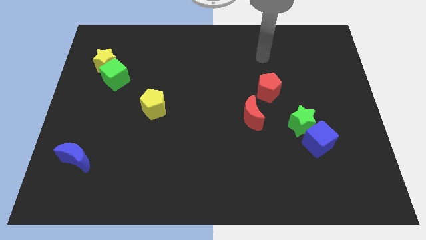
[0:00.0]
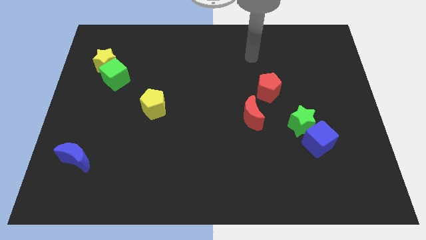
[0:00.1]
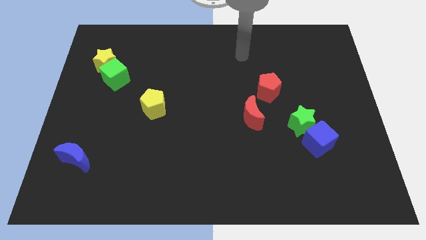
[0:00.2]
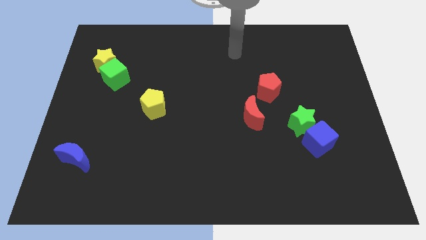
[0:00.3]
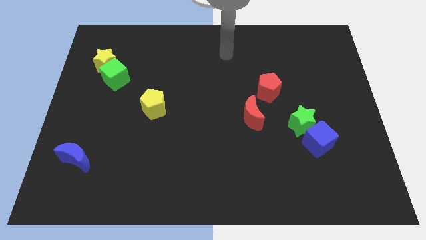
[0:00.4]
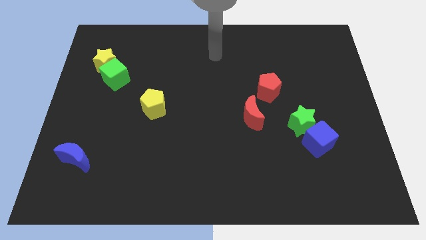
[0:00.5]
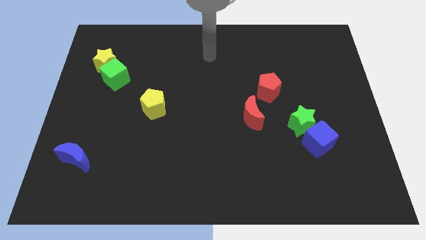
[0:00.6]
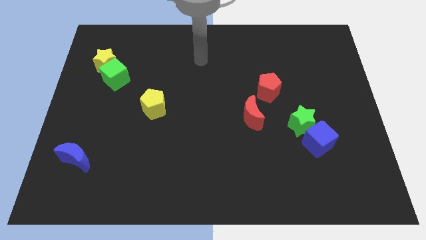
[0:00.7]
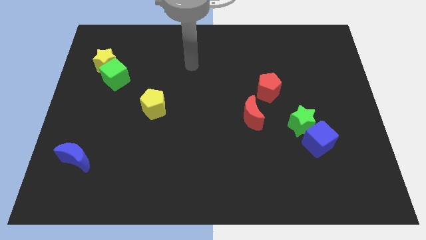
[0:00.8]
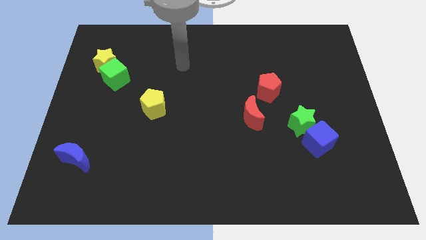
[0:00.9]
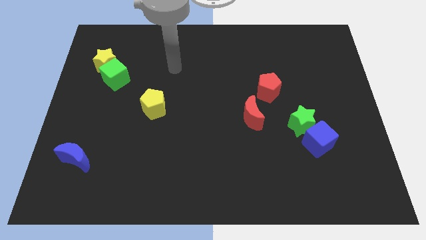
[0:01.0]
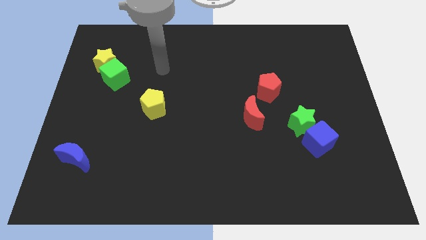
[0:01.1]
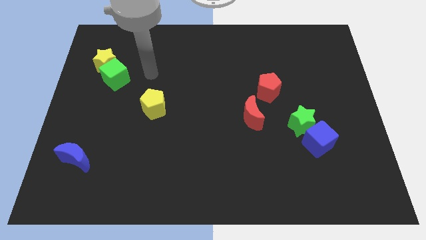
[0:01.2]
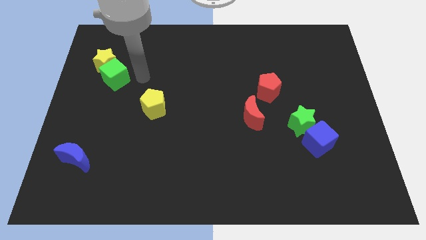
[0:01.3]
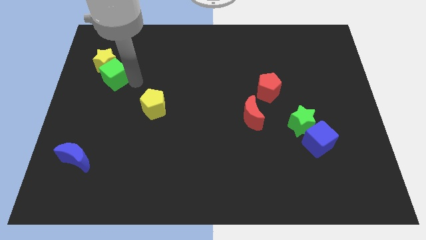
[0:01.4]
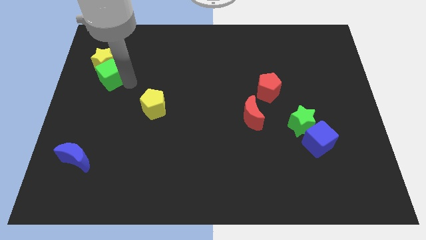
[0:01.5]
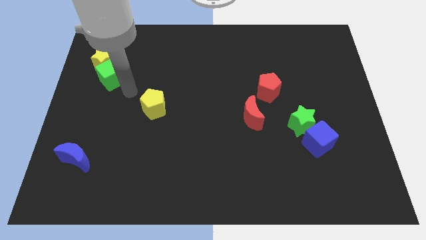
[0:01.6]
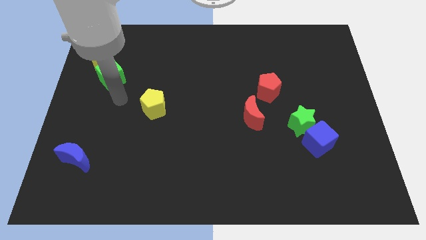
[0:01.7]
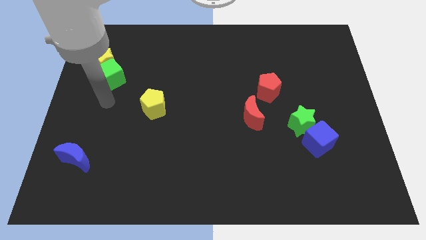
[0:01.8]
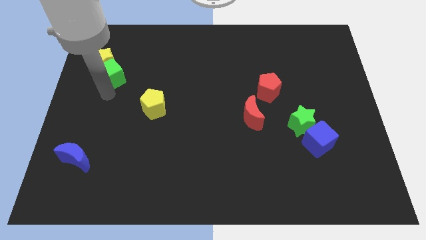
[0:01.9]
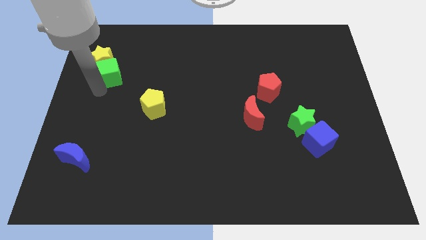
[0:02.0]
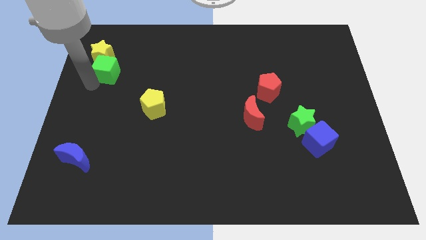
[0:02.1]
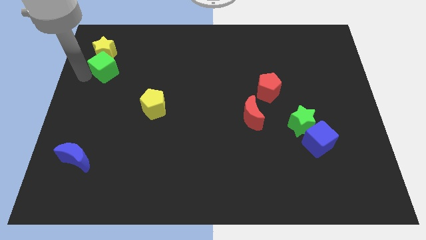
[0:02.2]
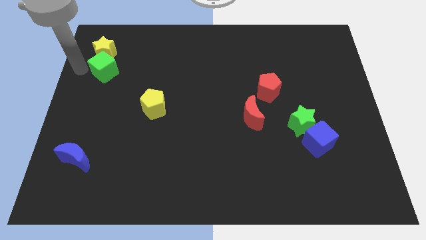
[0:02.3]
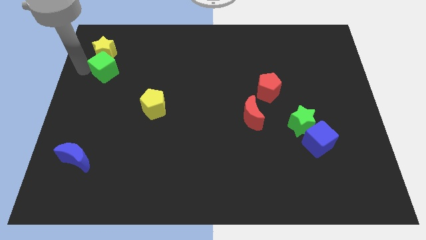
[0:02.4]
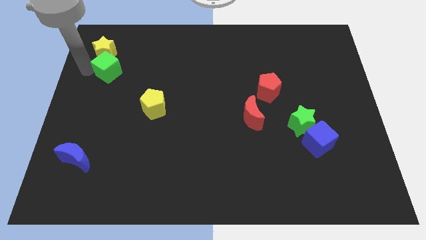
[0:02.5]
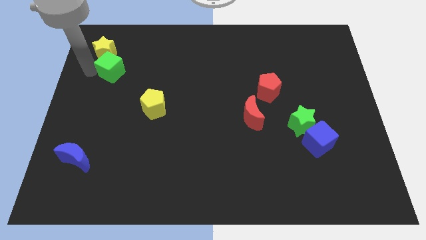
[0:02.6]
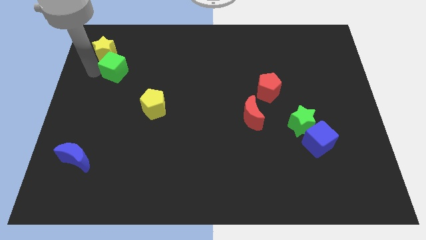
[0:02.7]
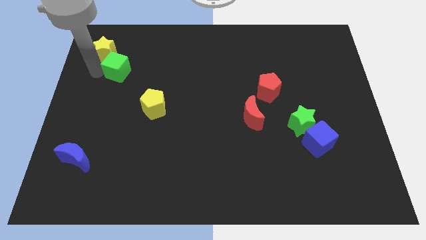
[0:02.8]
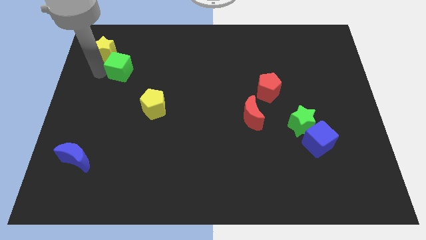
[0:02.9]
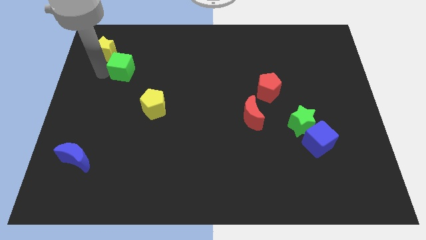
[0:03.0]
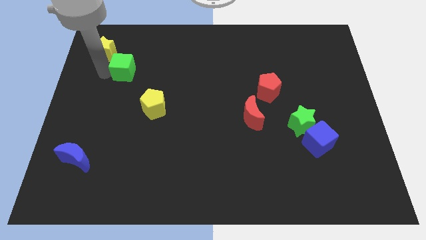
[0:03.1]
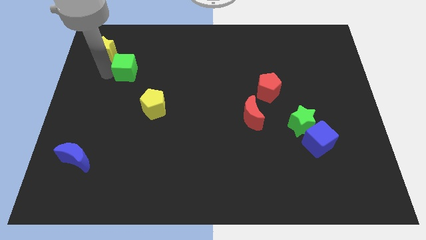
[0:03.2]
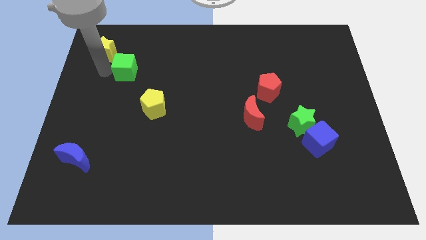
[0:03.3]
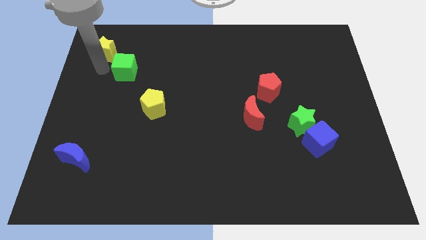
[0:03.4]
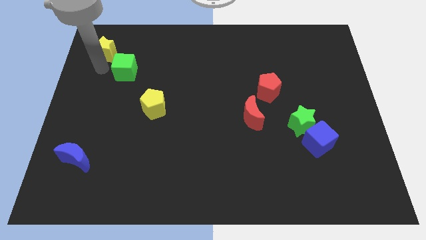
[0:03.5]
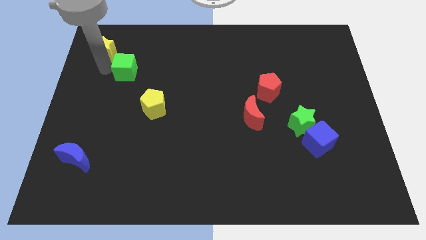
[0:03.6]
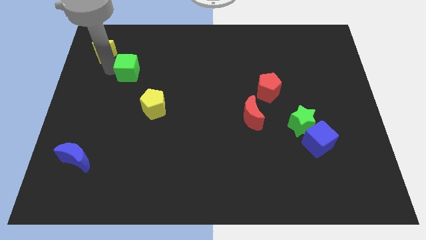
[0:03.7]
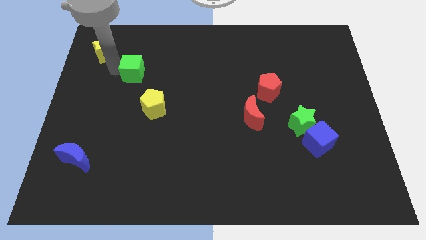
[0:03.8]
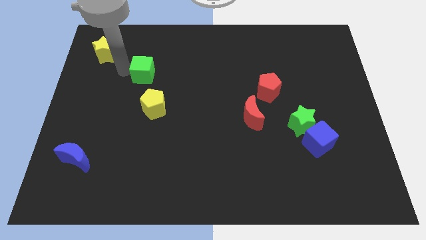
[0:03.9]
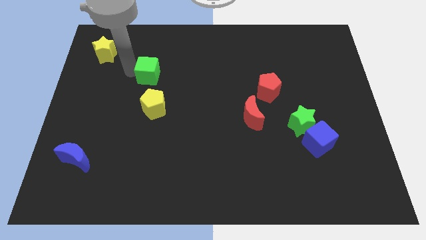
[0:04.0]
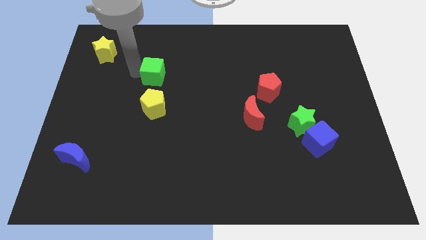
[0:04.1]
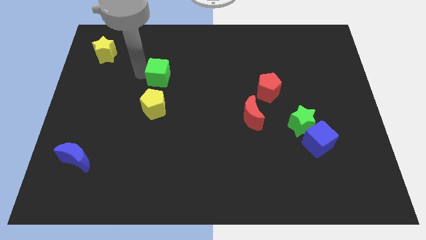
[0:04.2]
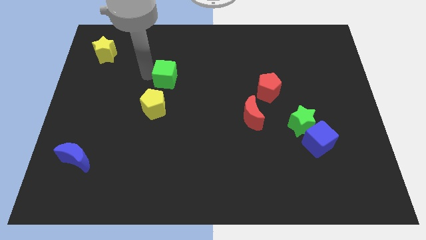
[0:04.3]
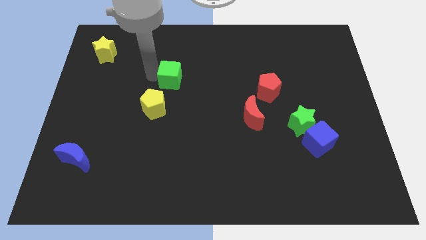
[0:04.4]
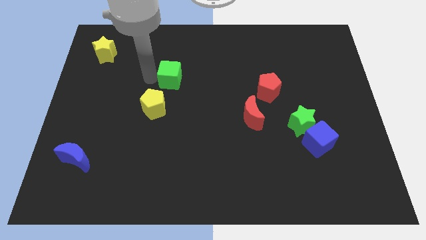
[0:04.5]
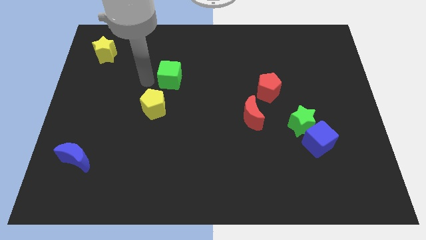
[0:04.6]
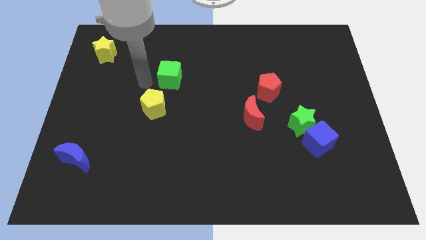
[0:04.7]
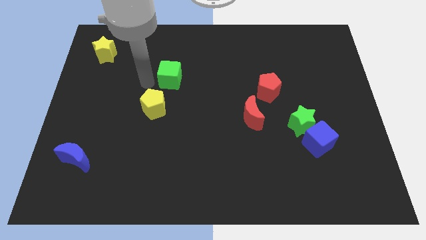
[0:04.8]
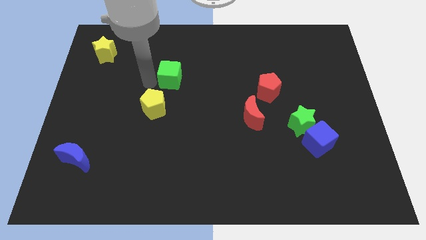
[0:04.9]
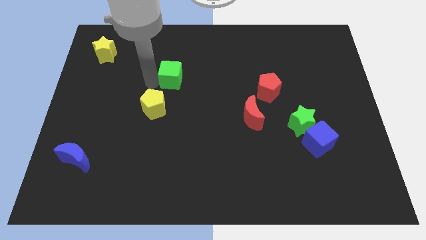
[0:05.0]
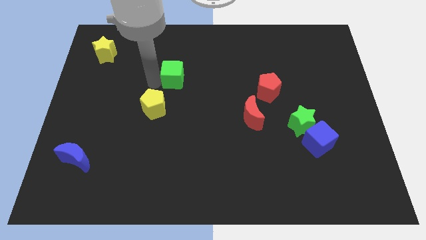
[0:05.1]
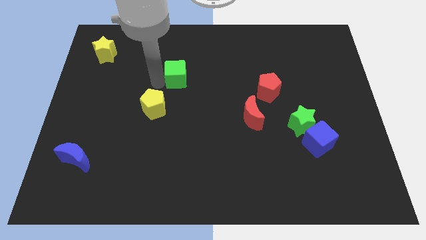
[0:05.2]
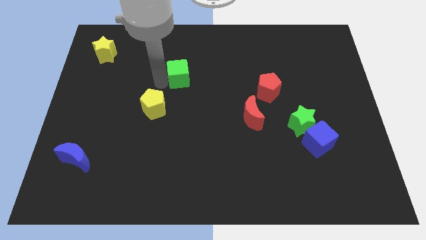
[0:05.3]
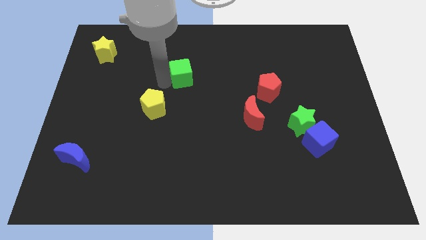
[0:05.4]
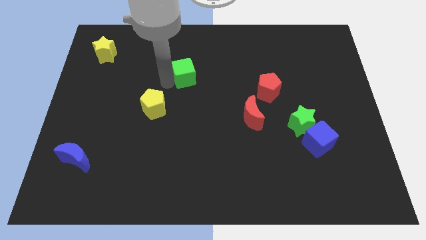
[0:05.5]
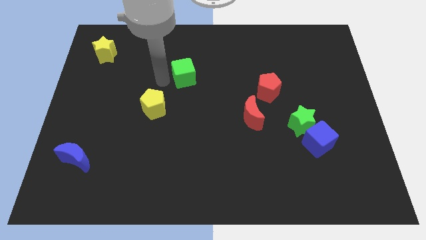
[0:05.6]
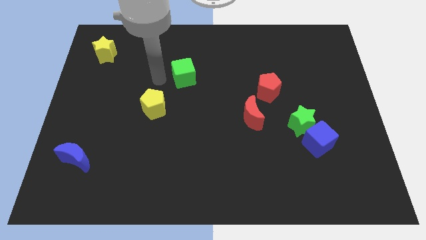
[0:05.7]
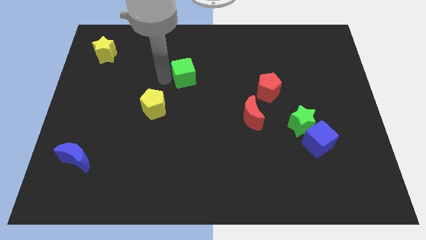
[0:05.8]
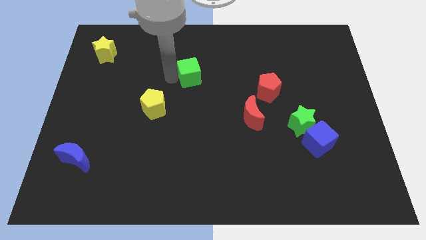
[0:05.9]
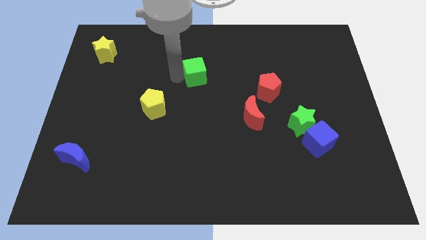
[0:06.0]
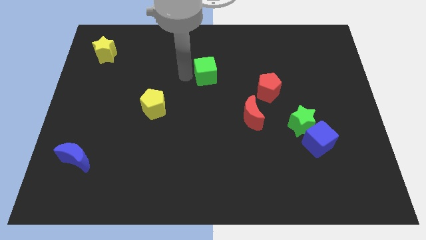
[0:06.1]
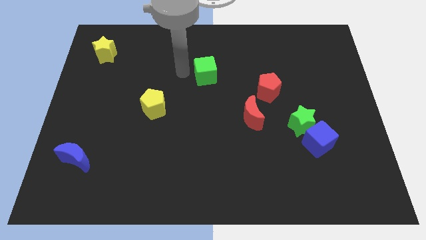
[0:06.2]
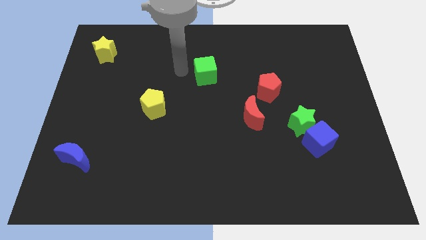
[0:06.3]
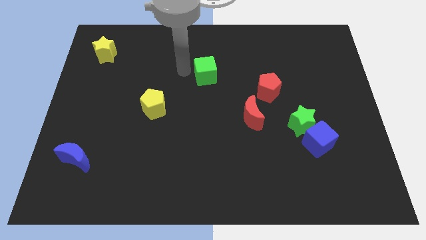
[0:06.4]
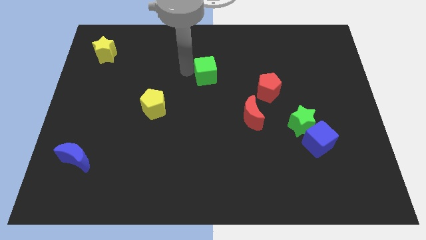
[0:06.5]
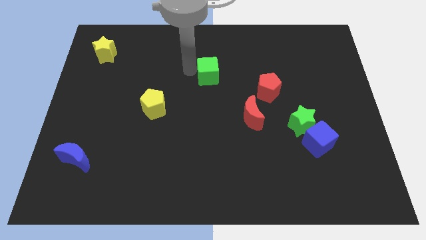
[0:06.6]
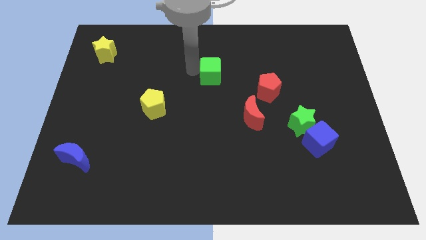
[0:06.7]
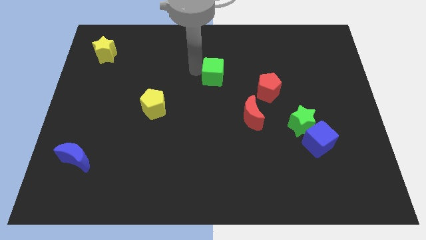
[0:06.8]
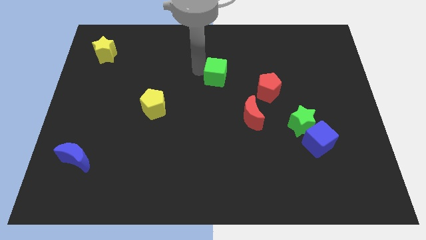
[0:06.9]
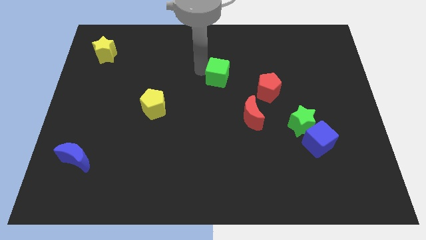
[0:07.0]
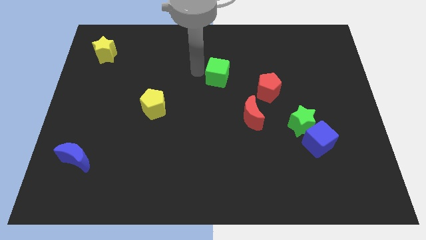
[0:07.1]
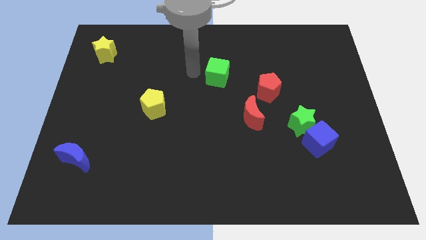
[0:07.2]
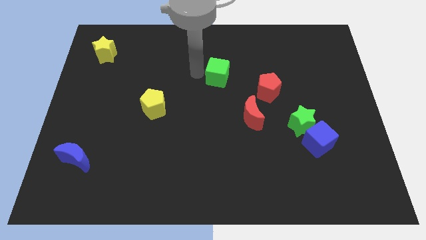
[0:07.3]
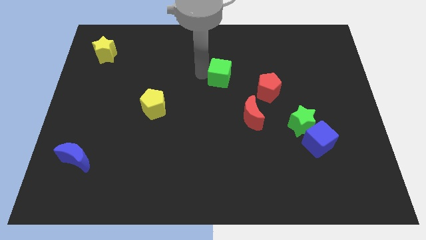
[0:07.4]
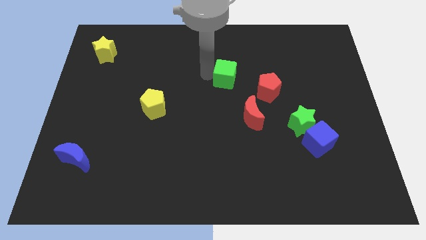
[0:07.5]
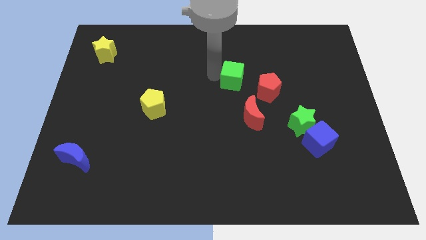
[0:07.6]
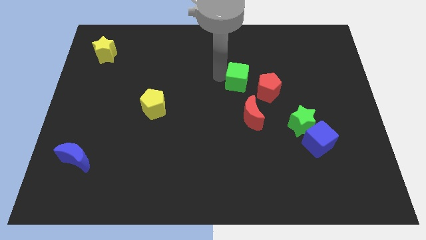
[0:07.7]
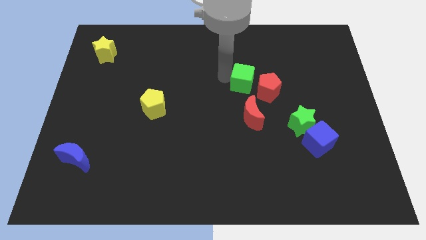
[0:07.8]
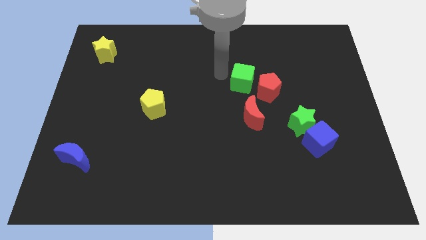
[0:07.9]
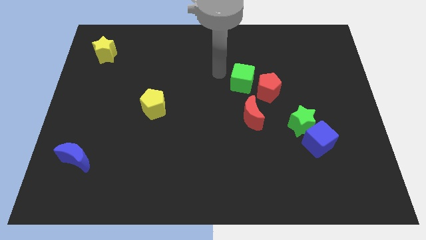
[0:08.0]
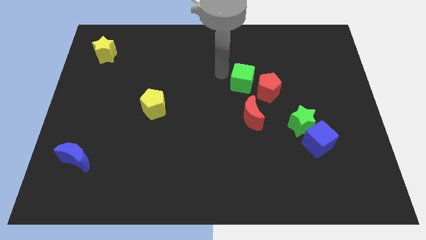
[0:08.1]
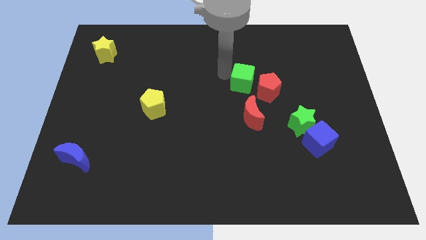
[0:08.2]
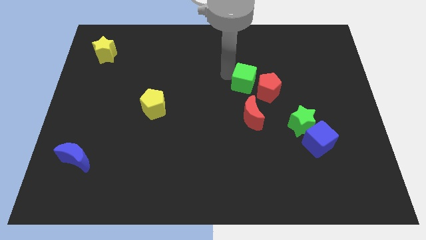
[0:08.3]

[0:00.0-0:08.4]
slide the green cube next to the red pentagon
